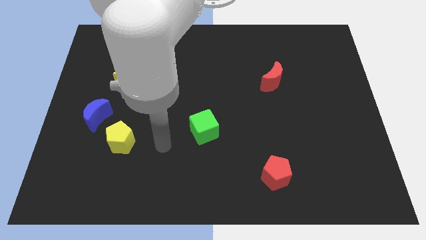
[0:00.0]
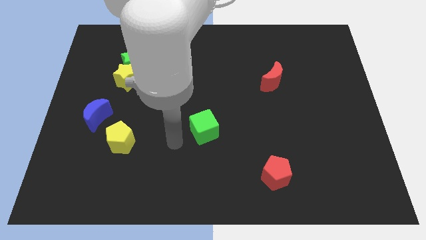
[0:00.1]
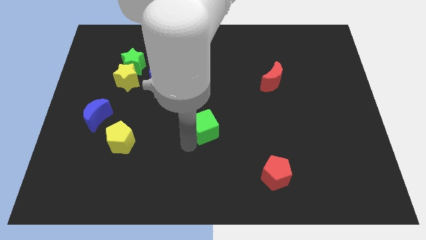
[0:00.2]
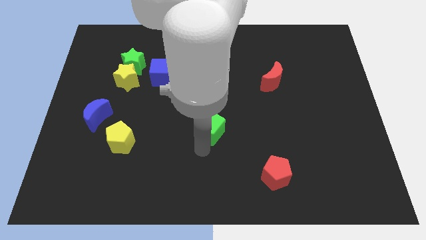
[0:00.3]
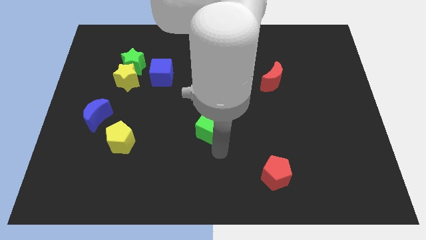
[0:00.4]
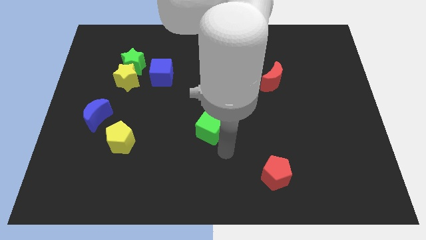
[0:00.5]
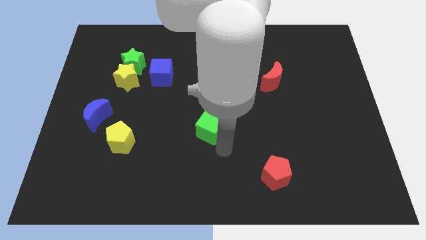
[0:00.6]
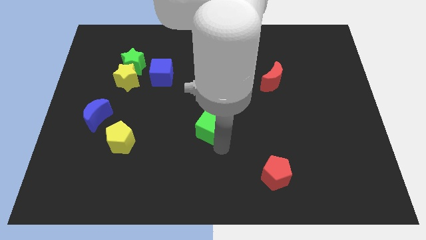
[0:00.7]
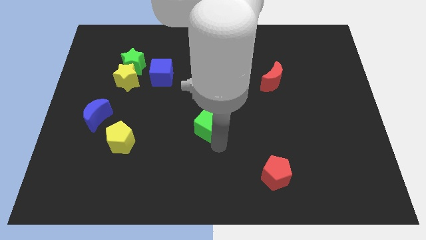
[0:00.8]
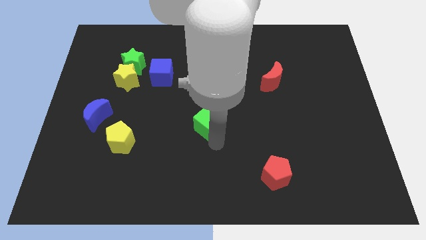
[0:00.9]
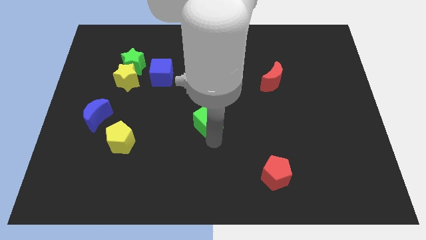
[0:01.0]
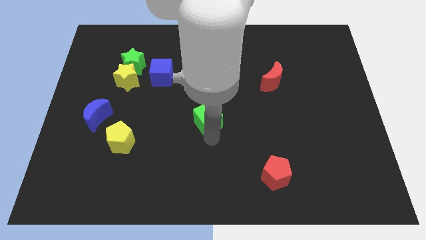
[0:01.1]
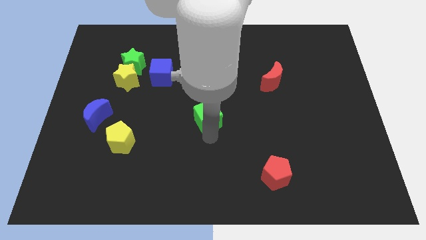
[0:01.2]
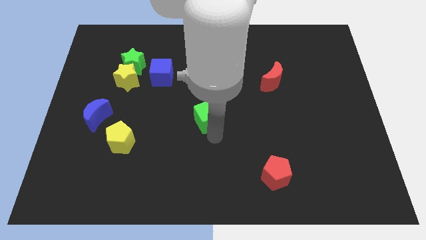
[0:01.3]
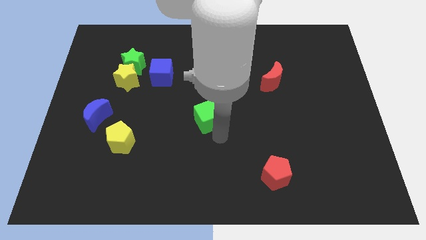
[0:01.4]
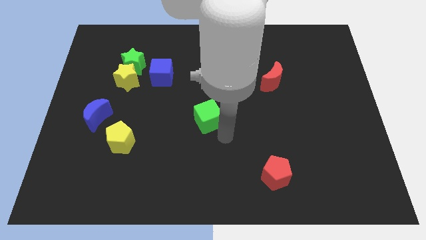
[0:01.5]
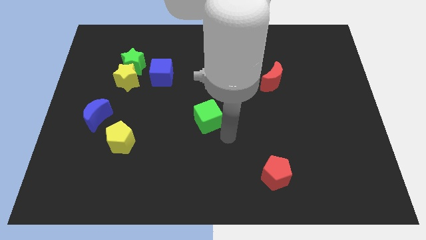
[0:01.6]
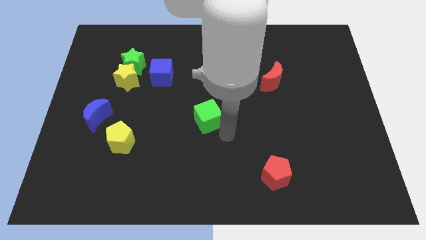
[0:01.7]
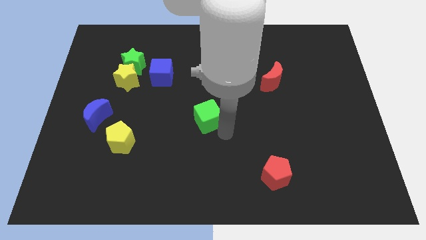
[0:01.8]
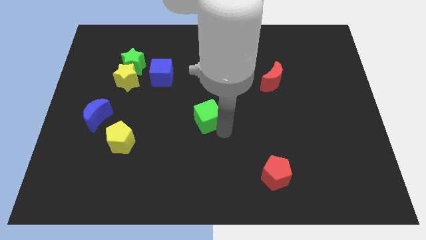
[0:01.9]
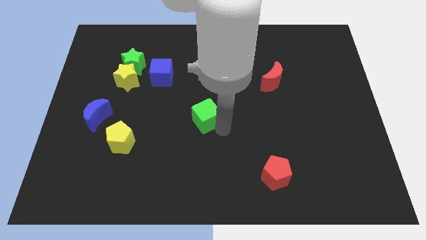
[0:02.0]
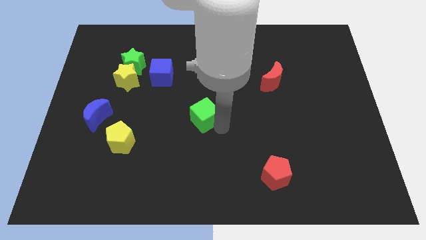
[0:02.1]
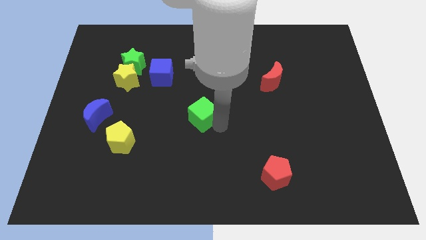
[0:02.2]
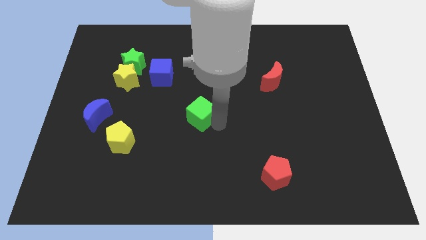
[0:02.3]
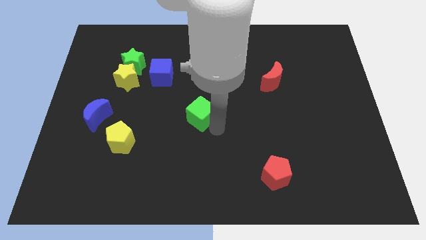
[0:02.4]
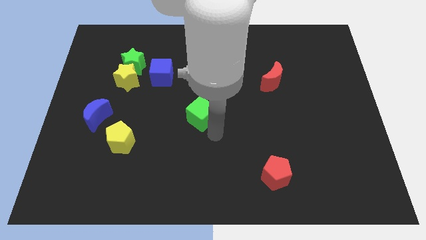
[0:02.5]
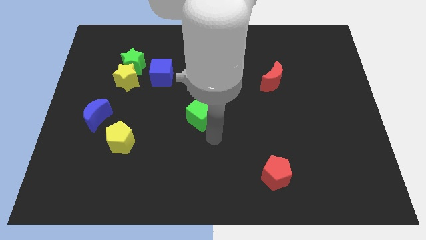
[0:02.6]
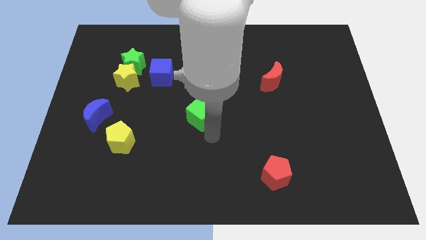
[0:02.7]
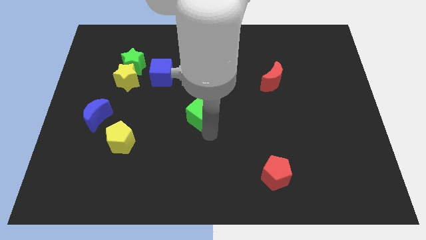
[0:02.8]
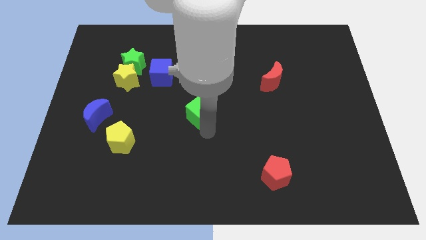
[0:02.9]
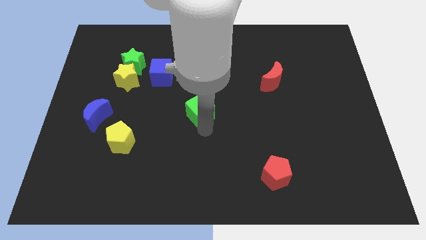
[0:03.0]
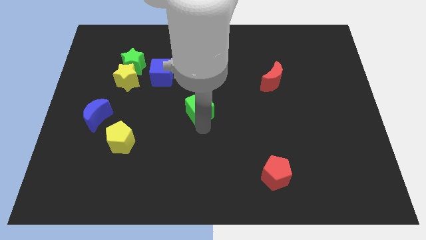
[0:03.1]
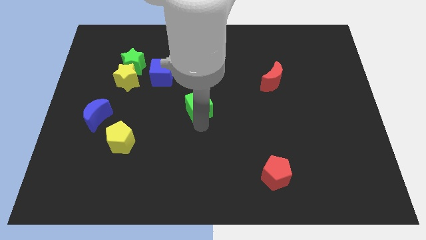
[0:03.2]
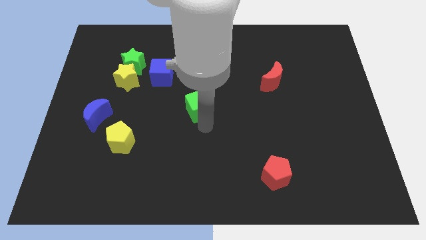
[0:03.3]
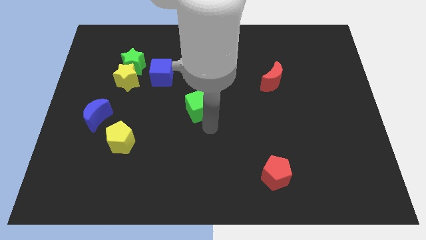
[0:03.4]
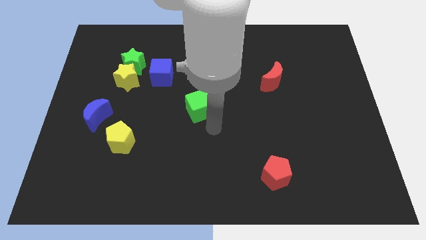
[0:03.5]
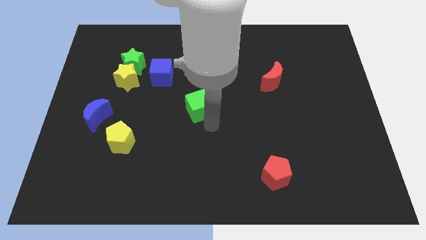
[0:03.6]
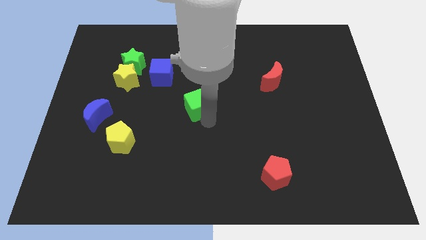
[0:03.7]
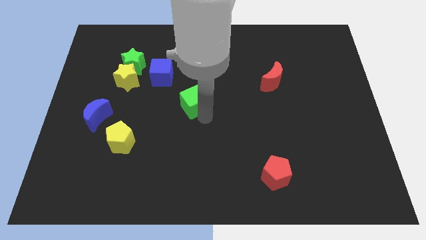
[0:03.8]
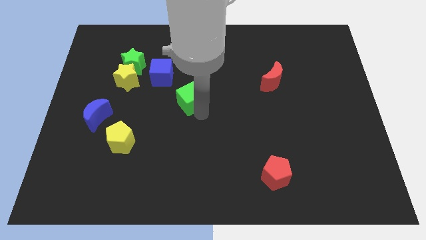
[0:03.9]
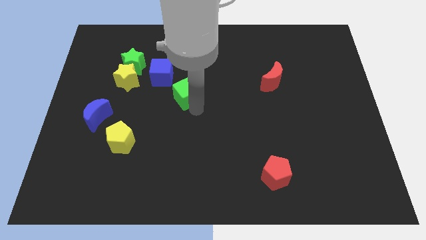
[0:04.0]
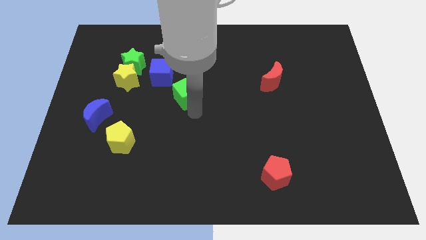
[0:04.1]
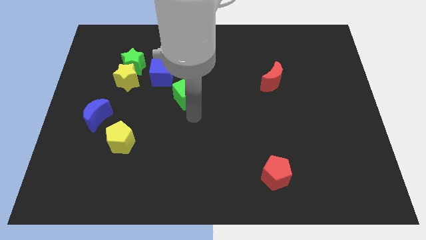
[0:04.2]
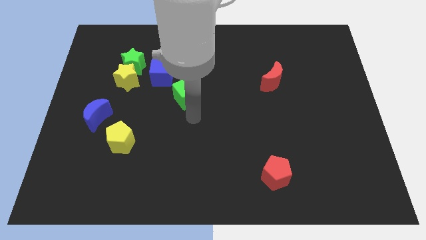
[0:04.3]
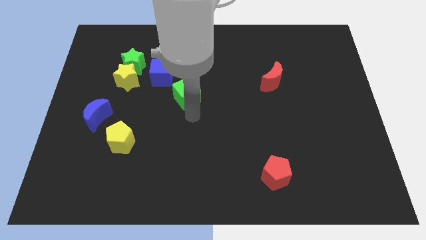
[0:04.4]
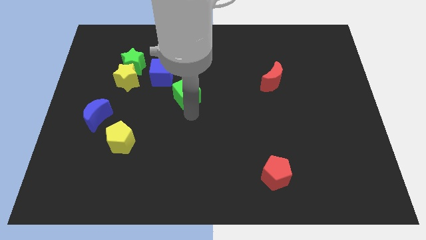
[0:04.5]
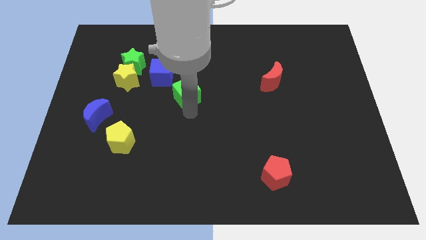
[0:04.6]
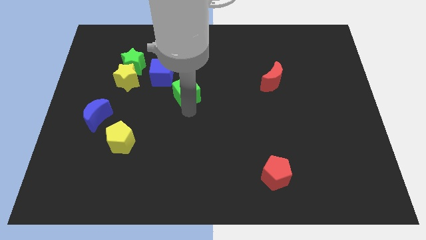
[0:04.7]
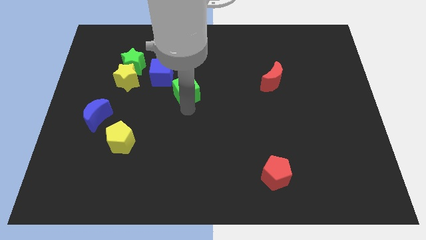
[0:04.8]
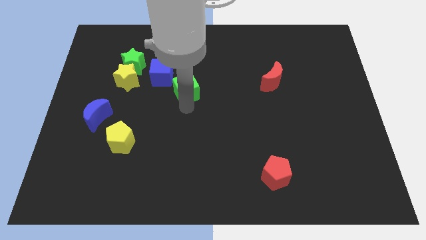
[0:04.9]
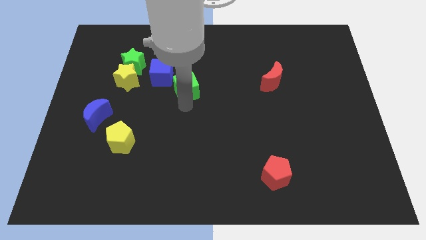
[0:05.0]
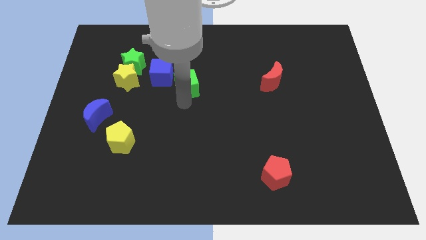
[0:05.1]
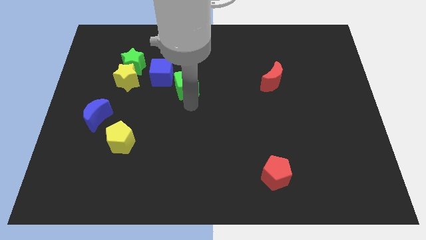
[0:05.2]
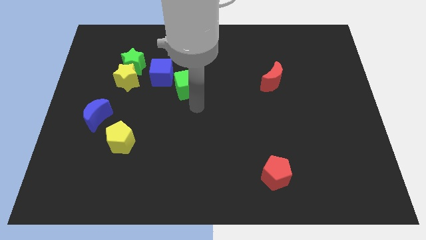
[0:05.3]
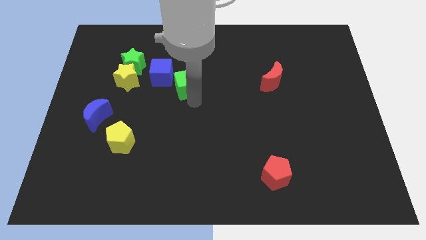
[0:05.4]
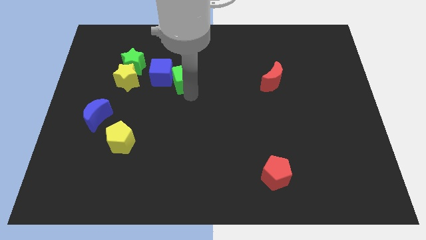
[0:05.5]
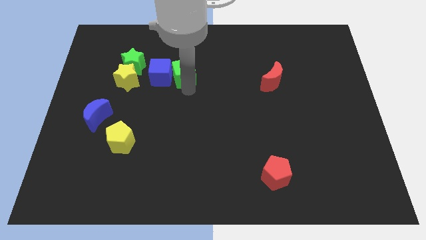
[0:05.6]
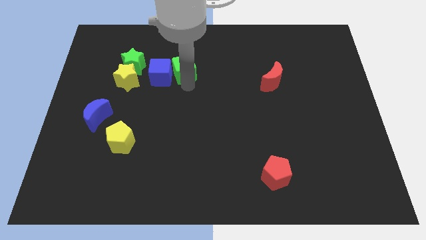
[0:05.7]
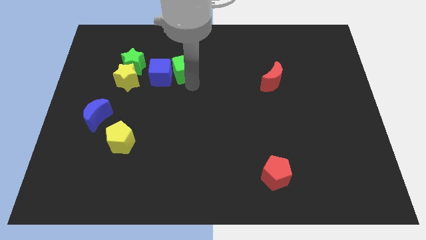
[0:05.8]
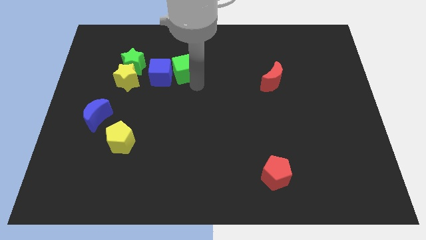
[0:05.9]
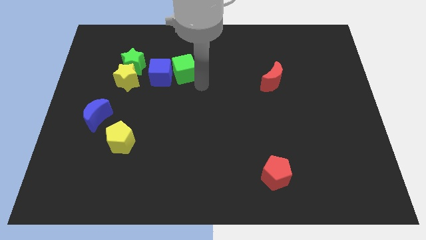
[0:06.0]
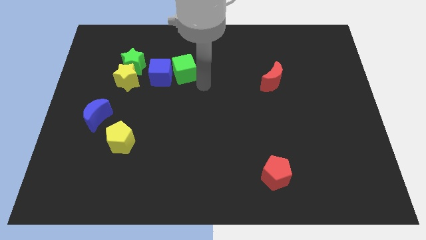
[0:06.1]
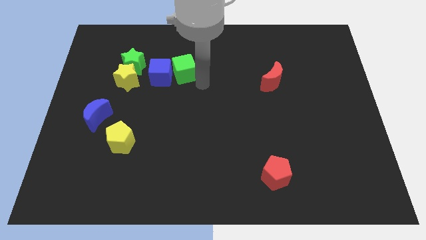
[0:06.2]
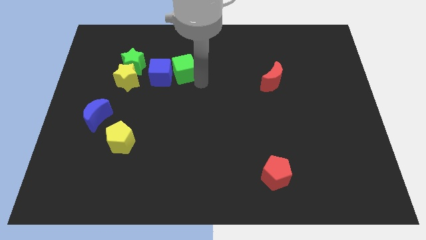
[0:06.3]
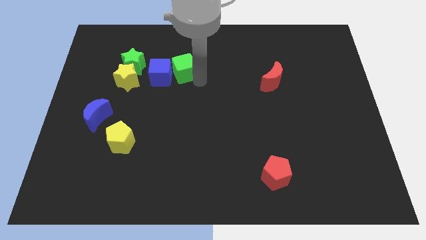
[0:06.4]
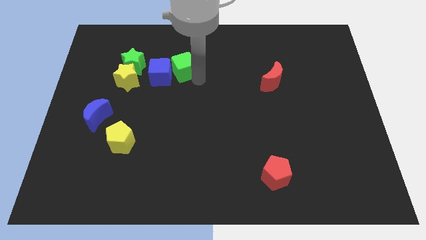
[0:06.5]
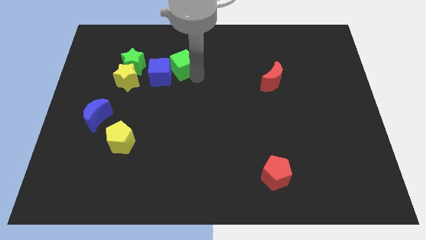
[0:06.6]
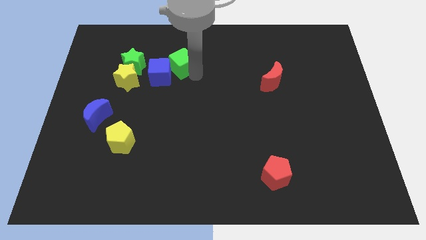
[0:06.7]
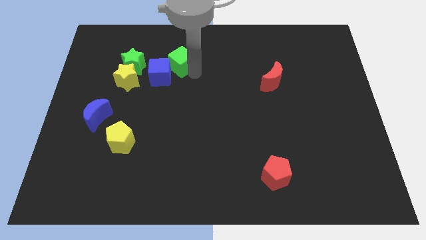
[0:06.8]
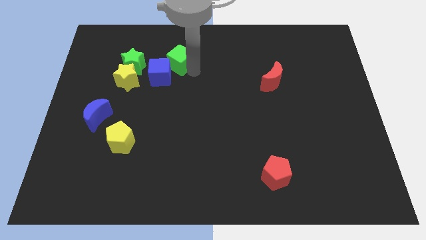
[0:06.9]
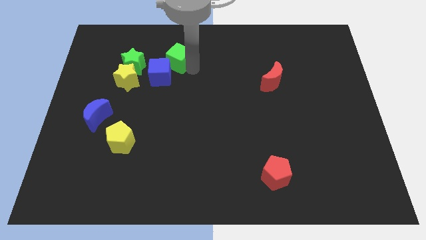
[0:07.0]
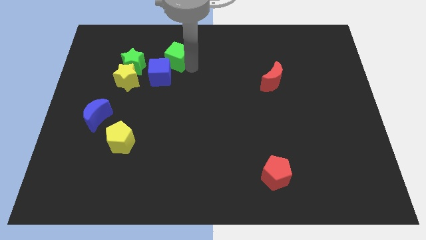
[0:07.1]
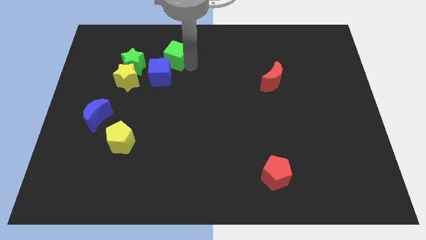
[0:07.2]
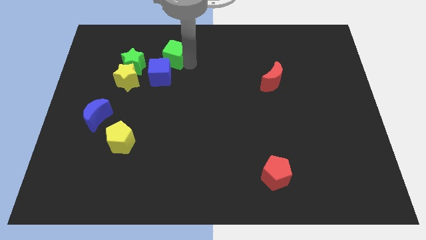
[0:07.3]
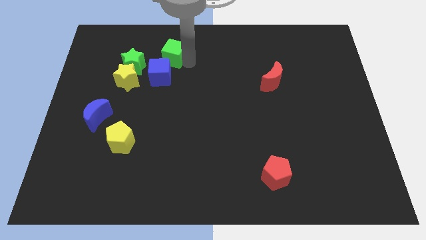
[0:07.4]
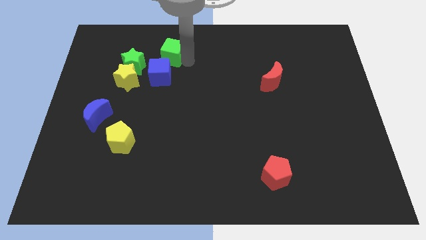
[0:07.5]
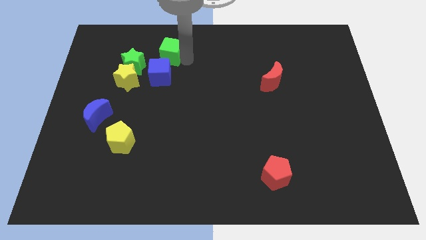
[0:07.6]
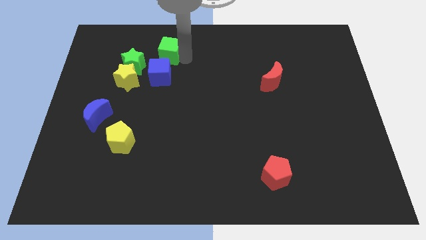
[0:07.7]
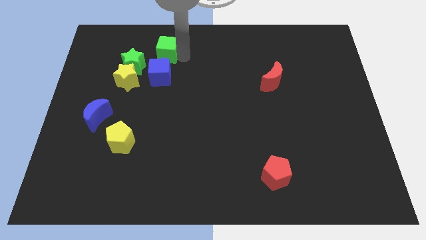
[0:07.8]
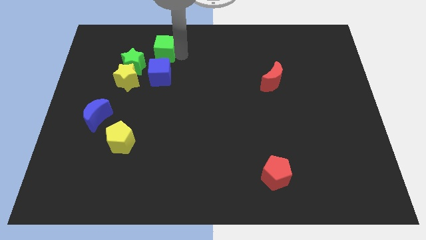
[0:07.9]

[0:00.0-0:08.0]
push the green cube diagonally up and to the left

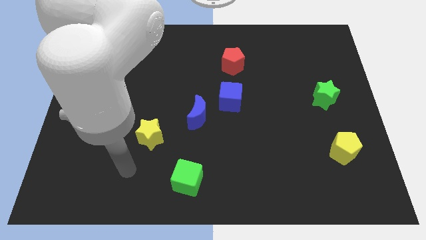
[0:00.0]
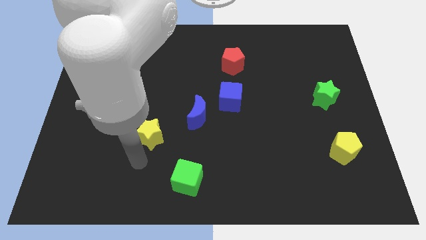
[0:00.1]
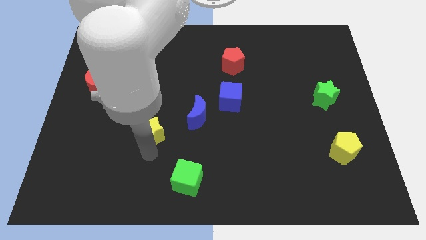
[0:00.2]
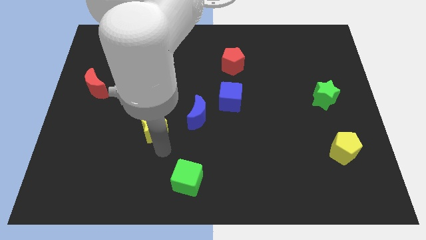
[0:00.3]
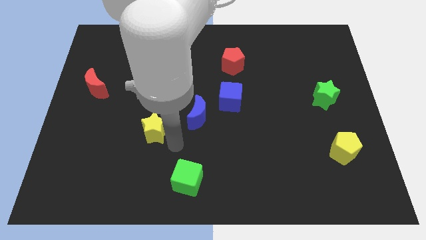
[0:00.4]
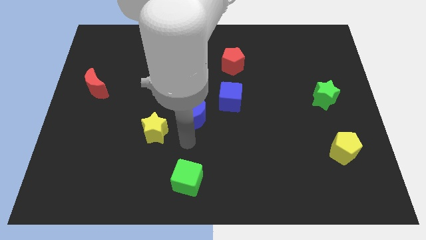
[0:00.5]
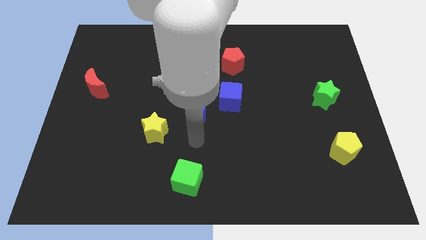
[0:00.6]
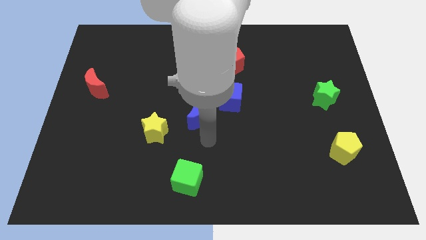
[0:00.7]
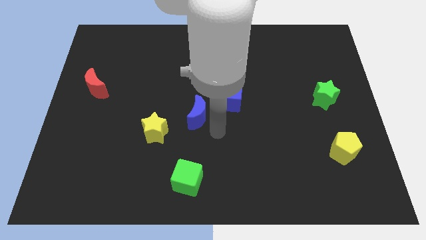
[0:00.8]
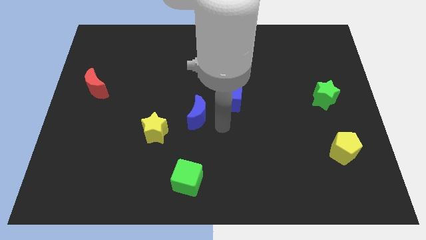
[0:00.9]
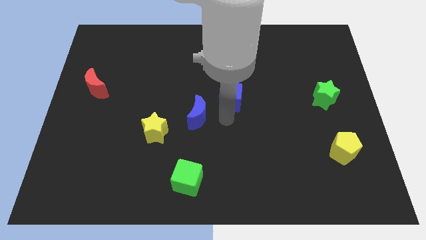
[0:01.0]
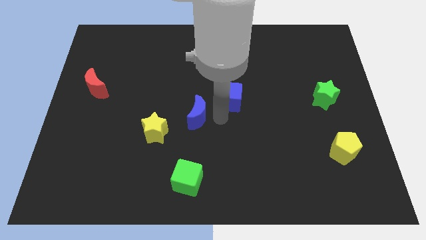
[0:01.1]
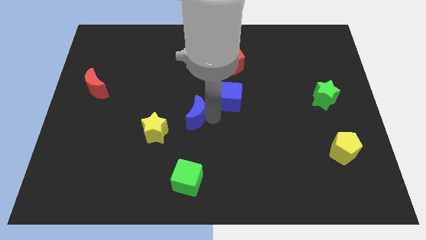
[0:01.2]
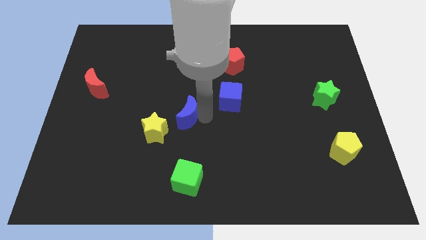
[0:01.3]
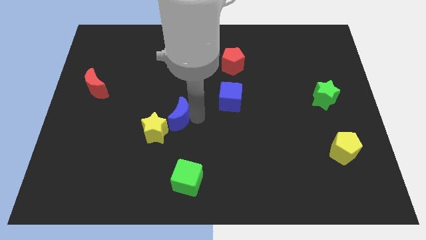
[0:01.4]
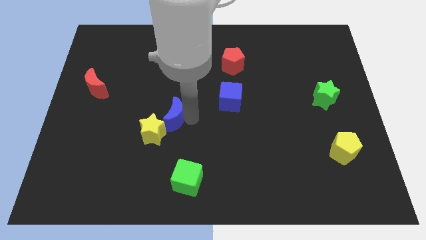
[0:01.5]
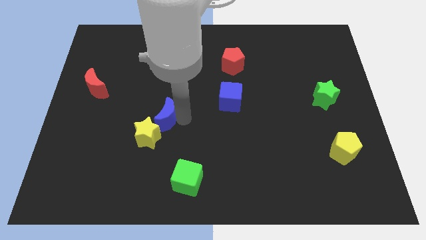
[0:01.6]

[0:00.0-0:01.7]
push the blue moon a bit to the left
